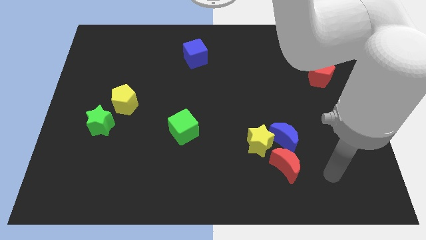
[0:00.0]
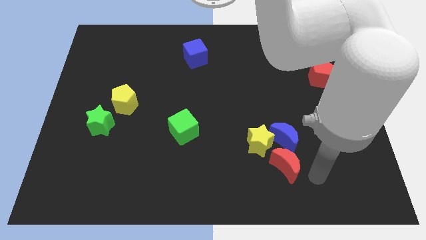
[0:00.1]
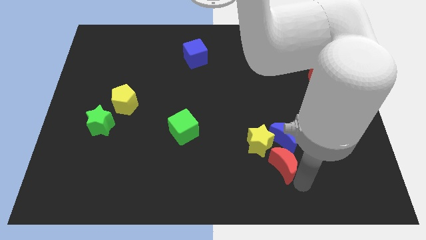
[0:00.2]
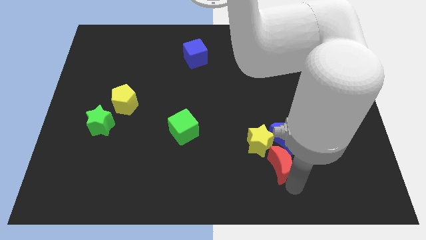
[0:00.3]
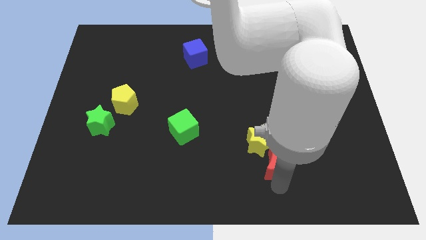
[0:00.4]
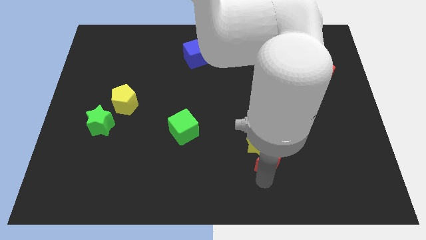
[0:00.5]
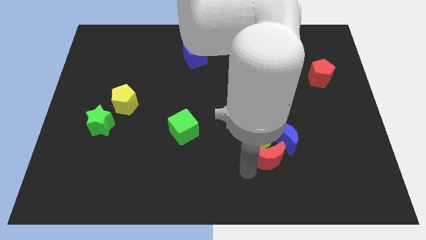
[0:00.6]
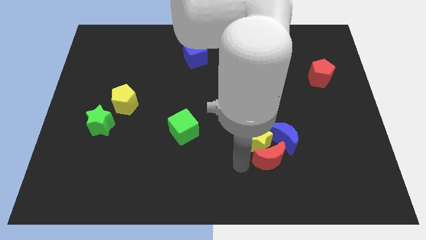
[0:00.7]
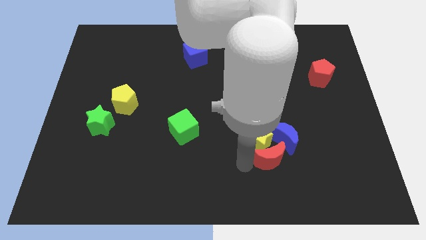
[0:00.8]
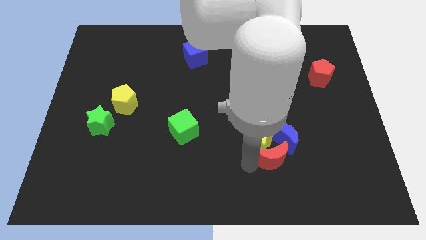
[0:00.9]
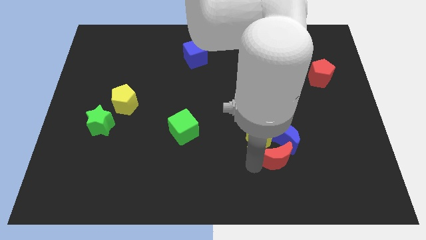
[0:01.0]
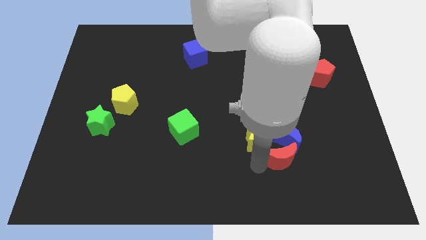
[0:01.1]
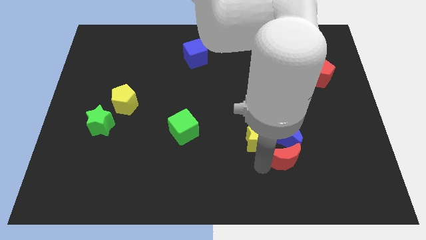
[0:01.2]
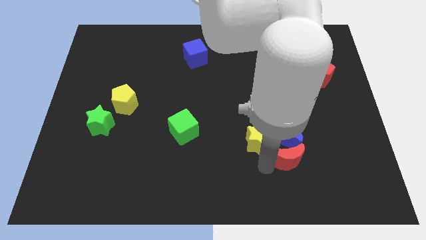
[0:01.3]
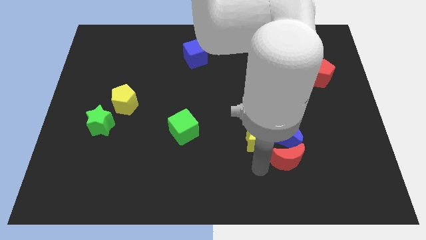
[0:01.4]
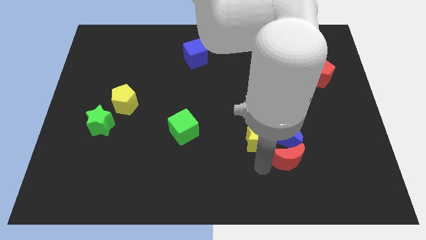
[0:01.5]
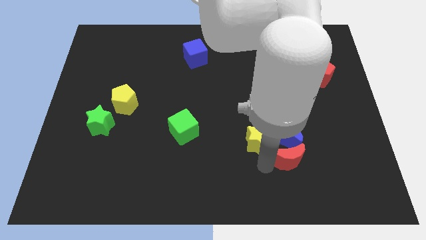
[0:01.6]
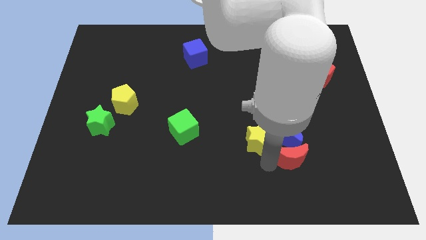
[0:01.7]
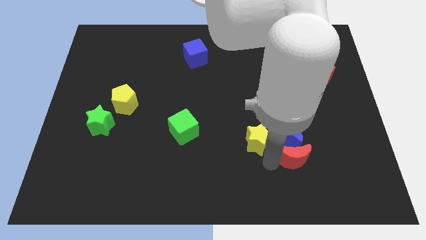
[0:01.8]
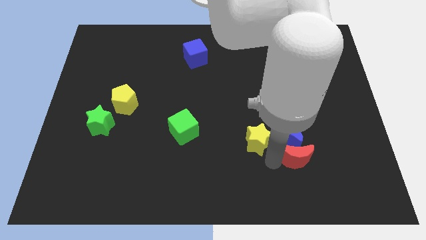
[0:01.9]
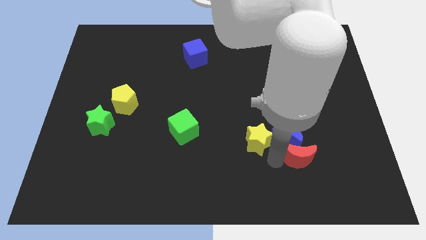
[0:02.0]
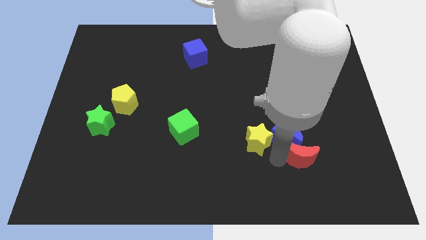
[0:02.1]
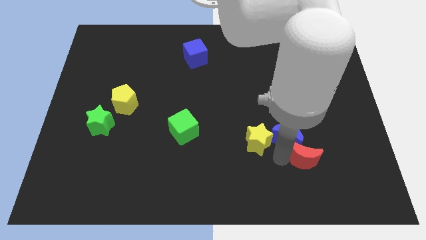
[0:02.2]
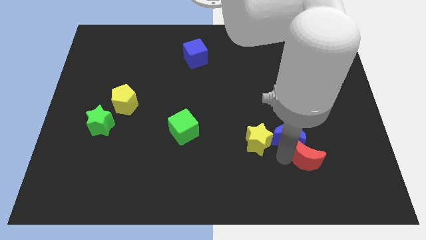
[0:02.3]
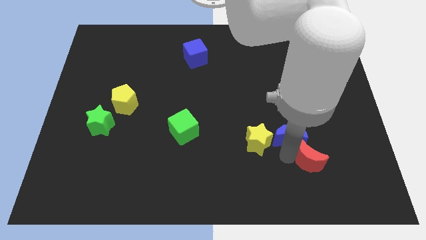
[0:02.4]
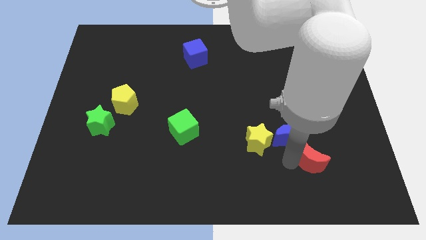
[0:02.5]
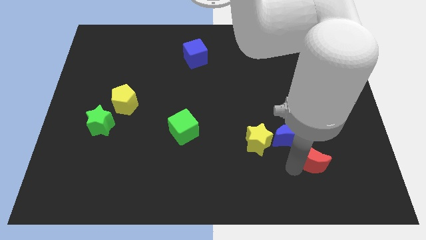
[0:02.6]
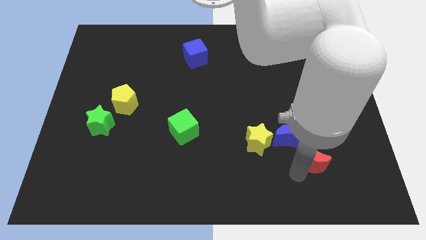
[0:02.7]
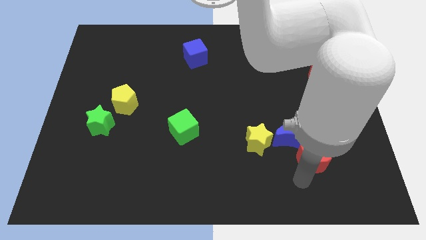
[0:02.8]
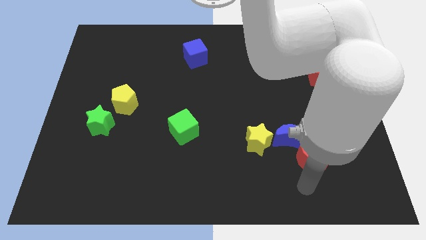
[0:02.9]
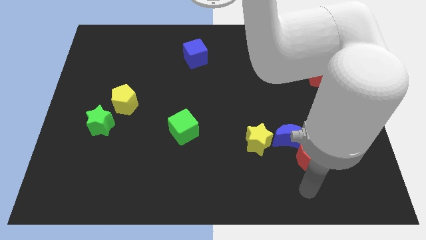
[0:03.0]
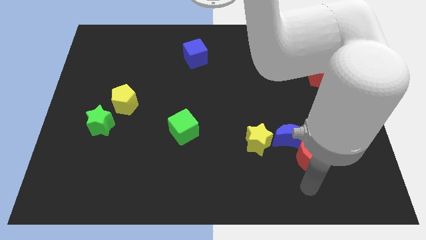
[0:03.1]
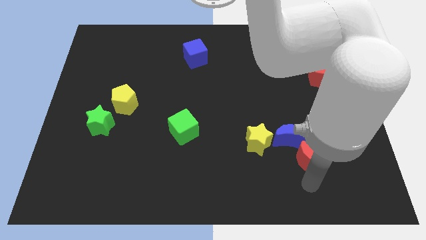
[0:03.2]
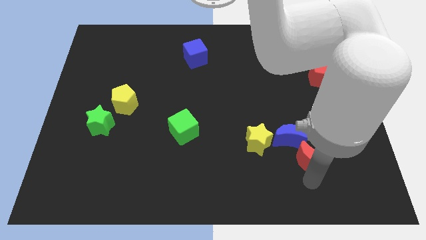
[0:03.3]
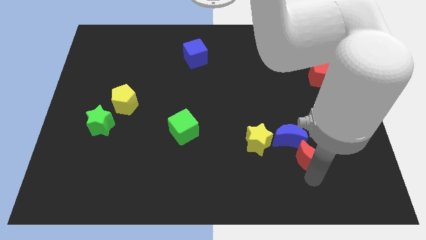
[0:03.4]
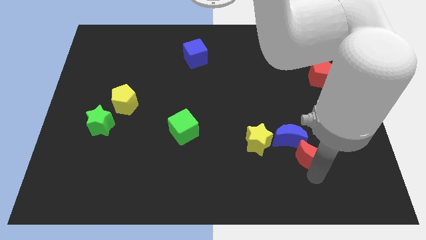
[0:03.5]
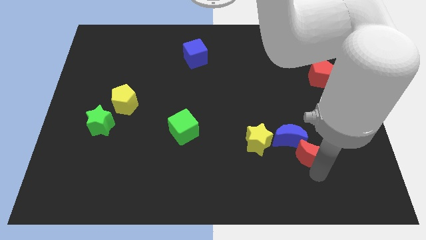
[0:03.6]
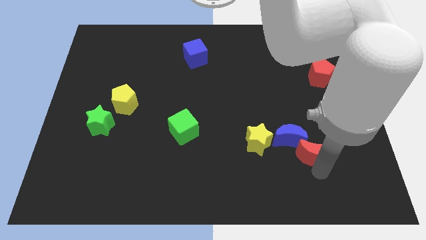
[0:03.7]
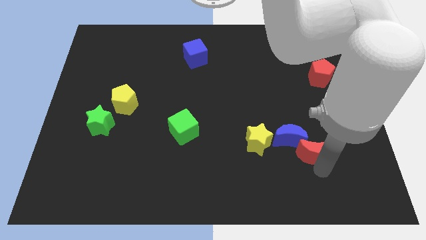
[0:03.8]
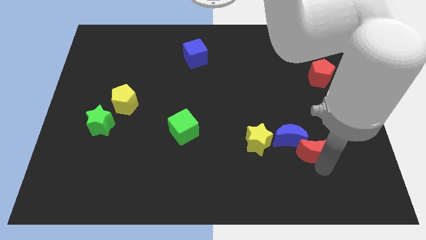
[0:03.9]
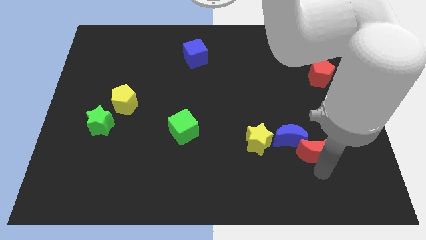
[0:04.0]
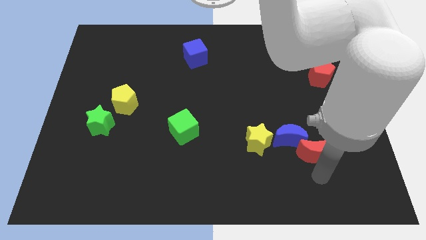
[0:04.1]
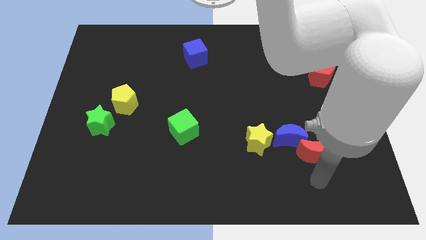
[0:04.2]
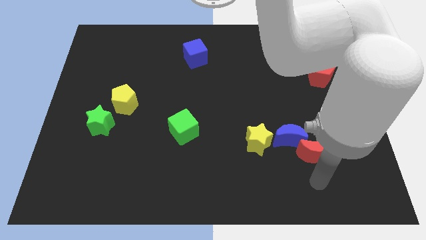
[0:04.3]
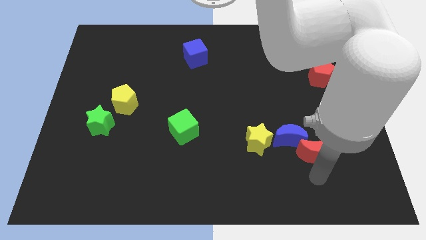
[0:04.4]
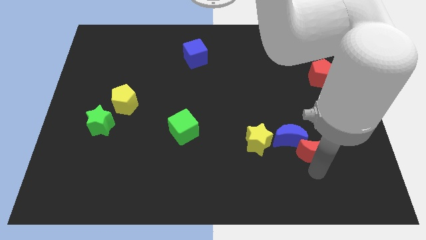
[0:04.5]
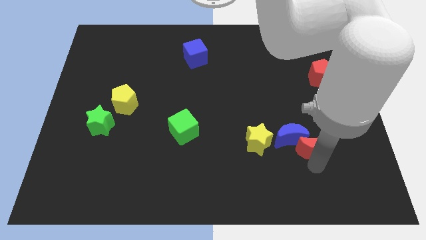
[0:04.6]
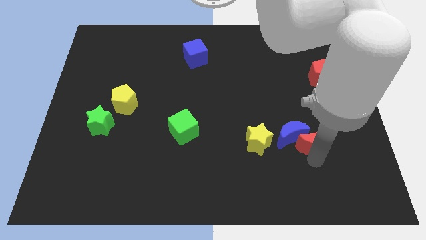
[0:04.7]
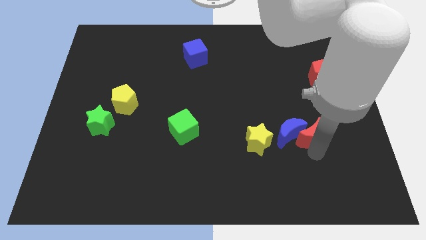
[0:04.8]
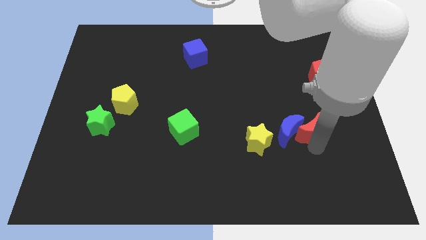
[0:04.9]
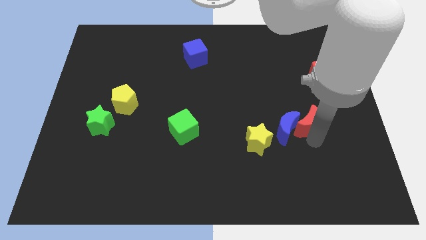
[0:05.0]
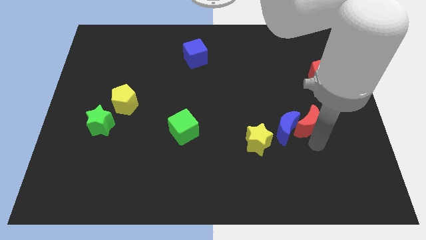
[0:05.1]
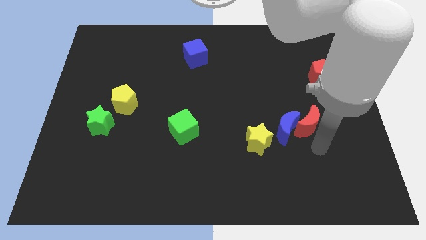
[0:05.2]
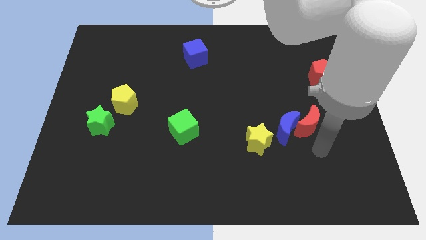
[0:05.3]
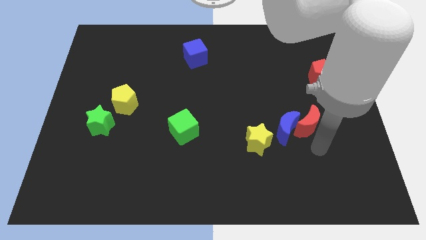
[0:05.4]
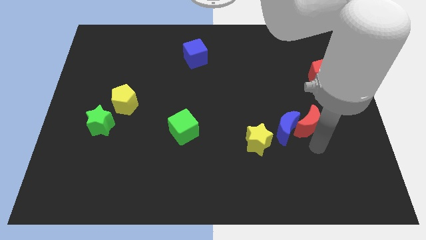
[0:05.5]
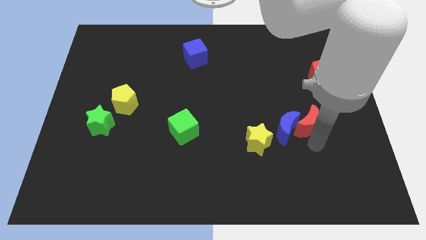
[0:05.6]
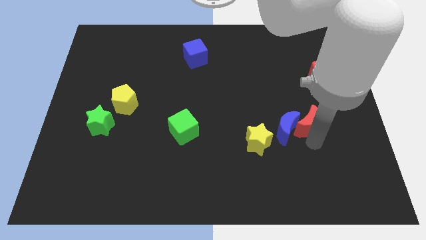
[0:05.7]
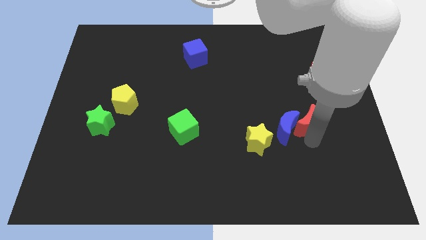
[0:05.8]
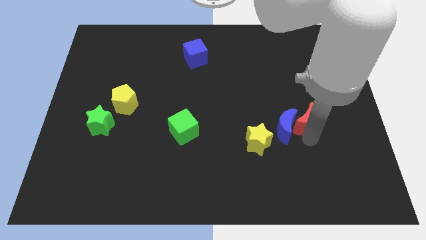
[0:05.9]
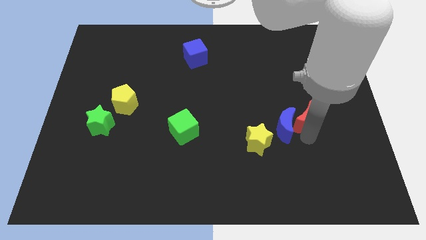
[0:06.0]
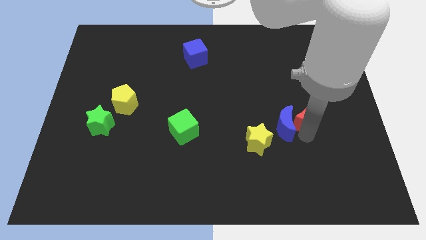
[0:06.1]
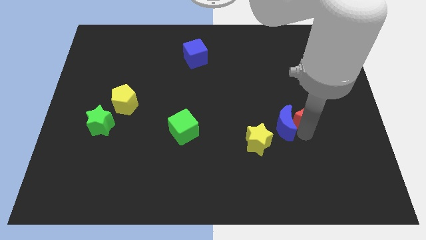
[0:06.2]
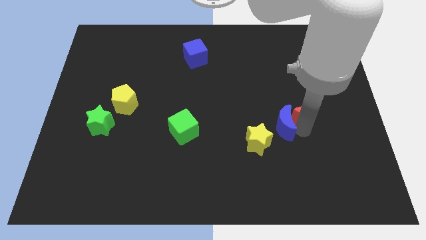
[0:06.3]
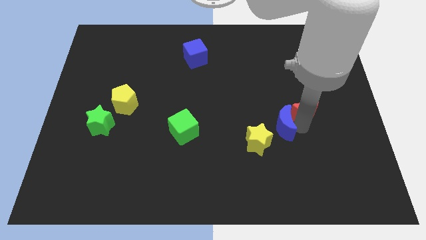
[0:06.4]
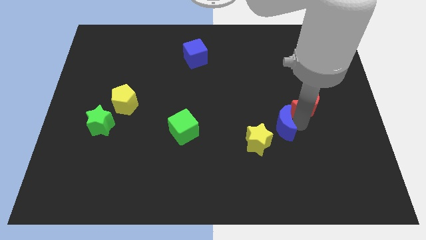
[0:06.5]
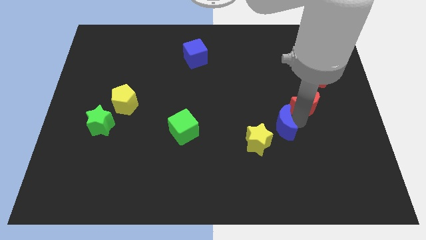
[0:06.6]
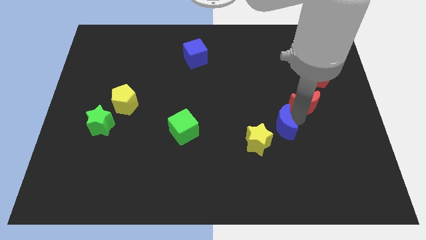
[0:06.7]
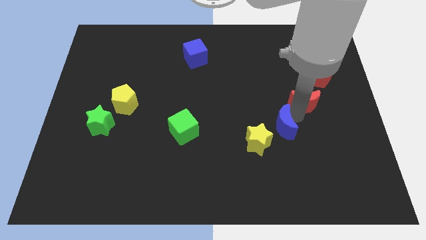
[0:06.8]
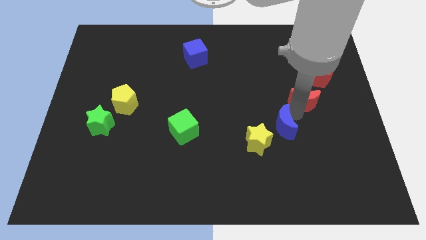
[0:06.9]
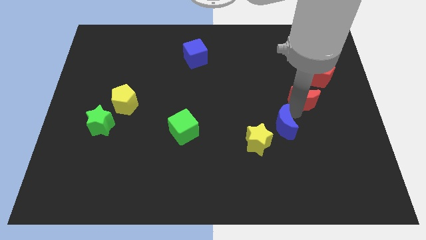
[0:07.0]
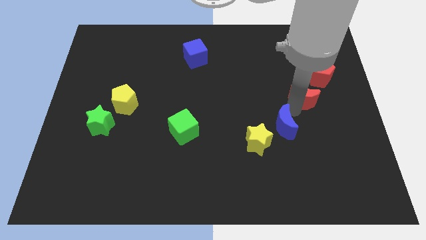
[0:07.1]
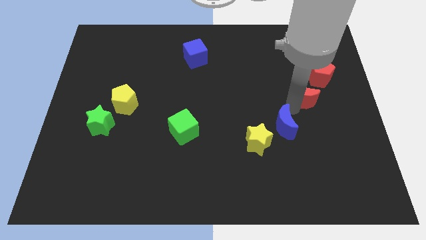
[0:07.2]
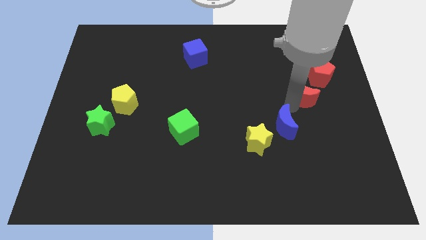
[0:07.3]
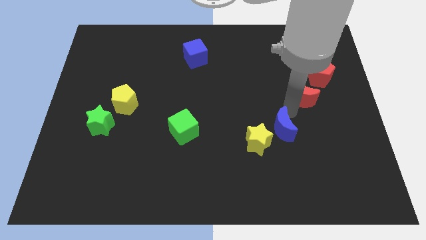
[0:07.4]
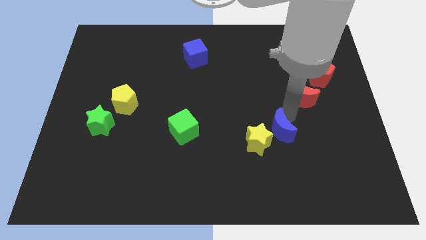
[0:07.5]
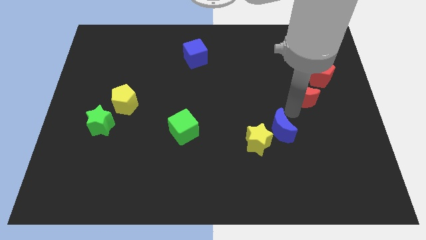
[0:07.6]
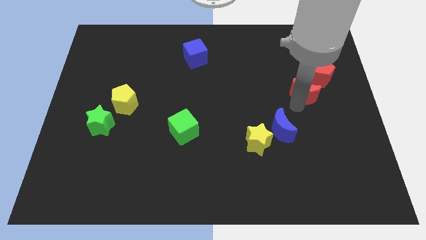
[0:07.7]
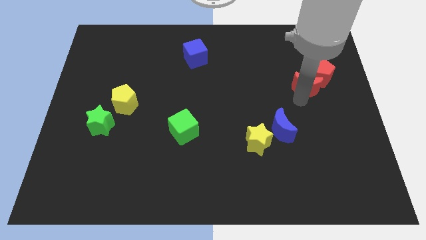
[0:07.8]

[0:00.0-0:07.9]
slide the red moon next to the red pentagon
